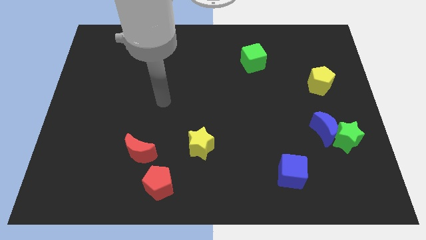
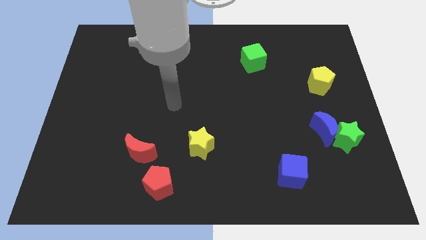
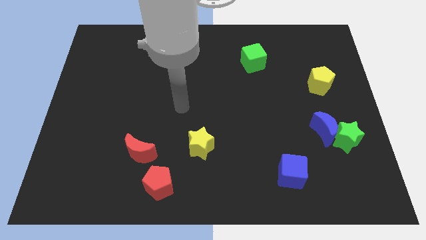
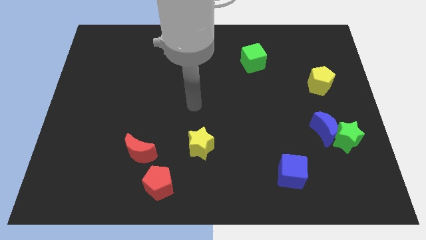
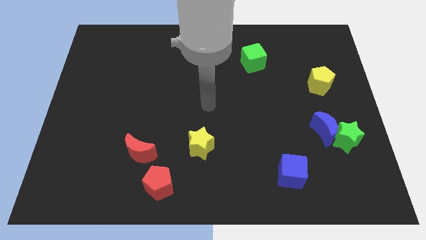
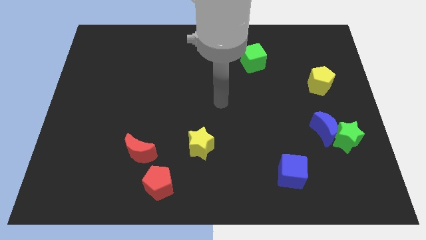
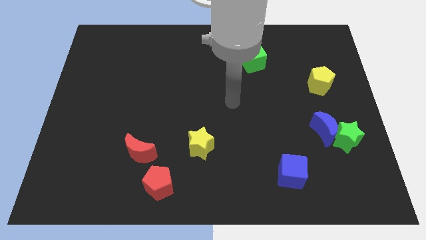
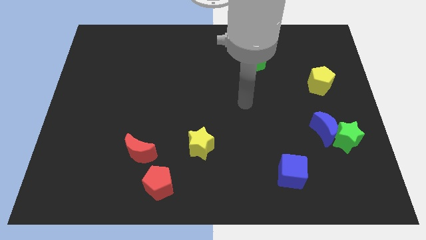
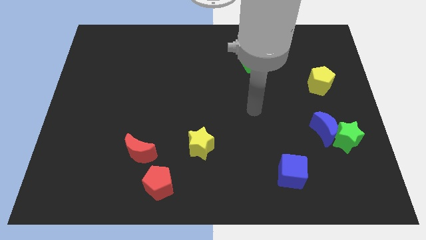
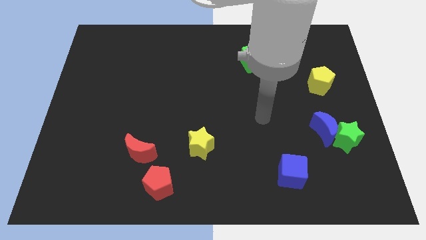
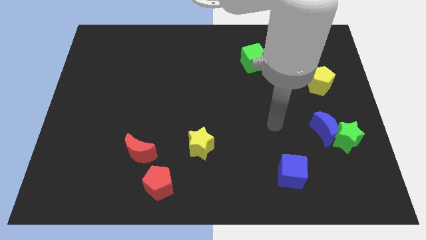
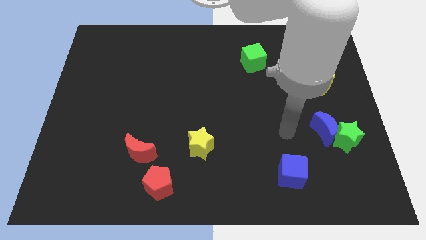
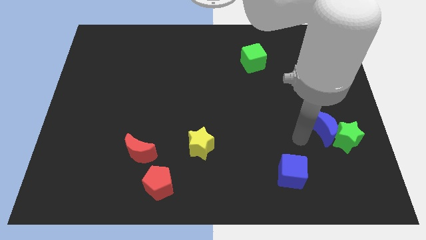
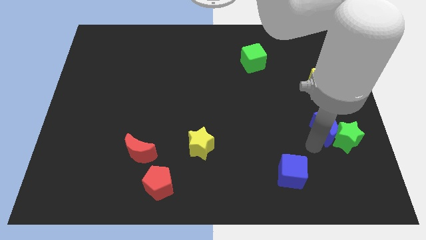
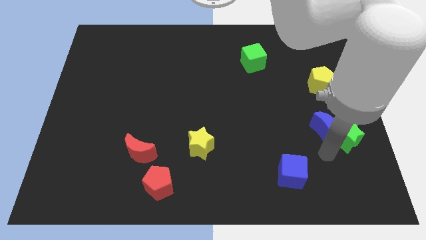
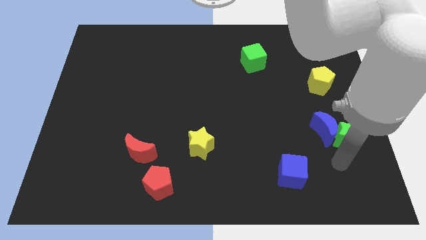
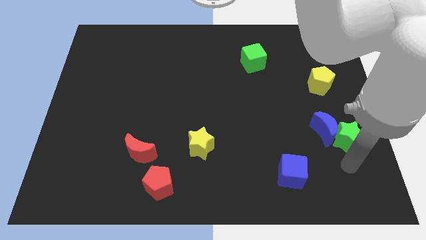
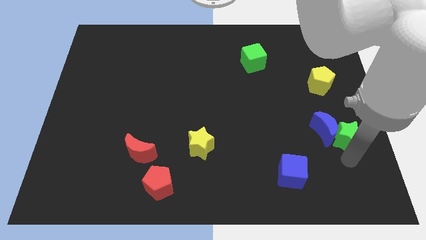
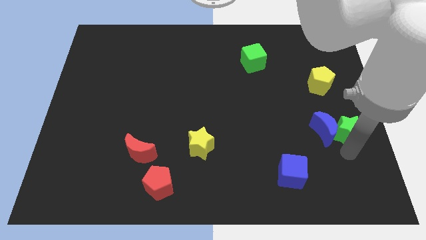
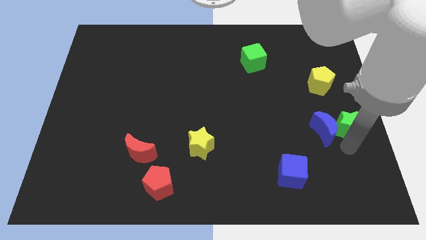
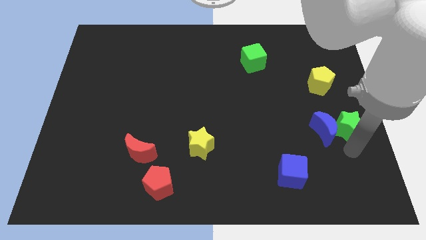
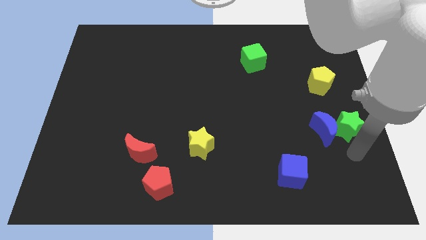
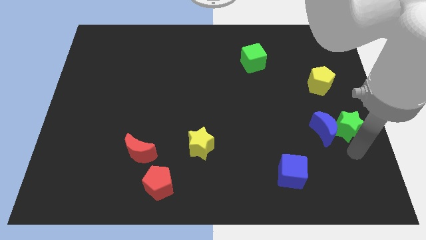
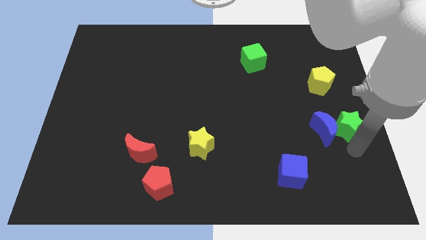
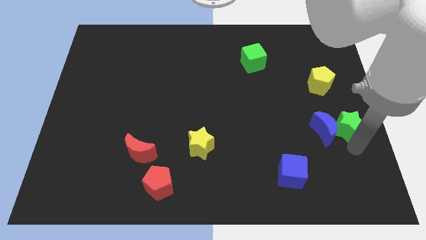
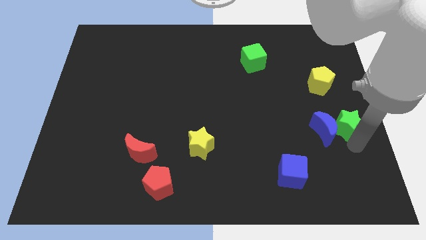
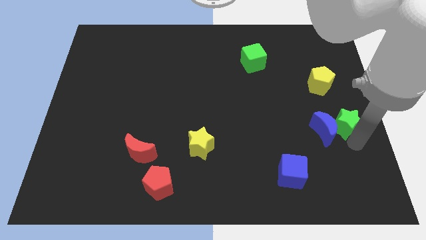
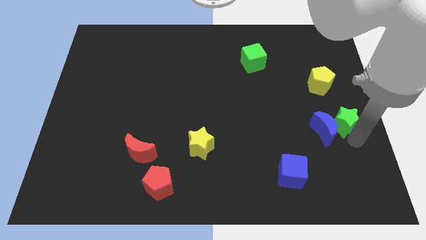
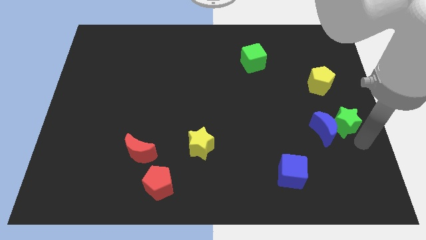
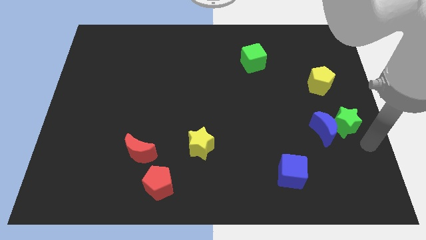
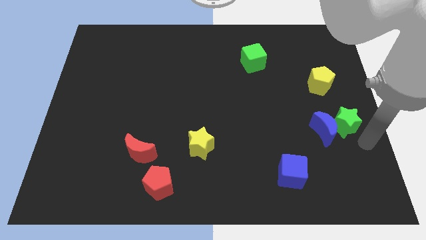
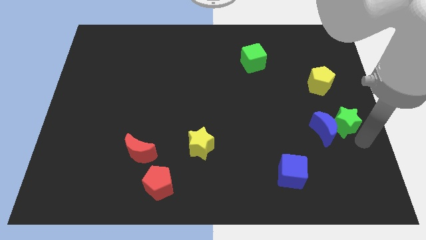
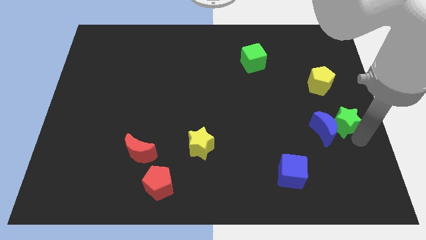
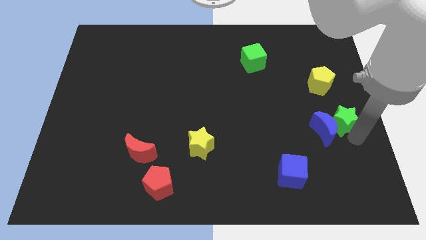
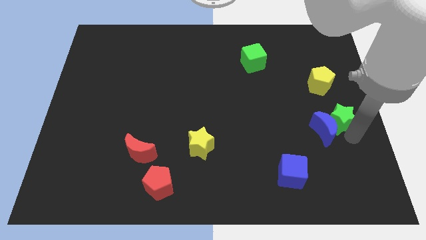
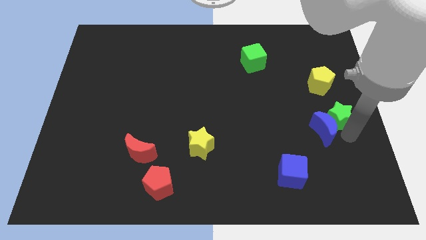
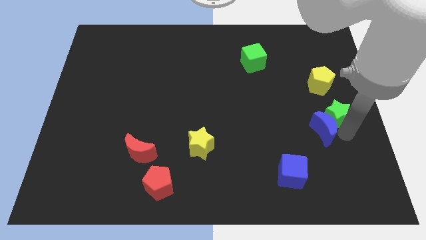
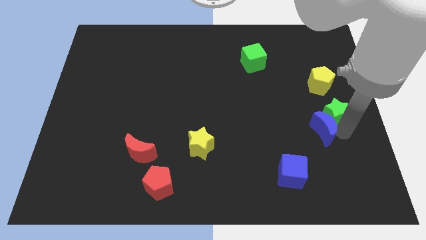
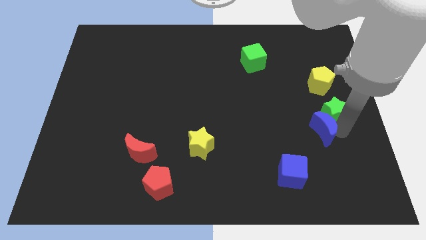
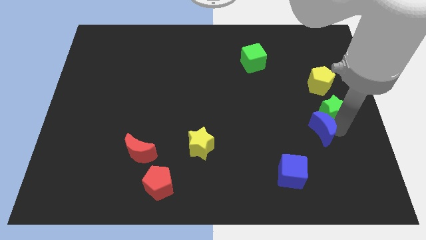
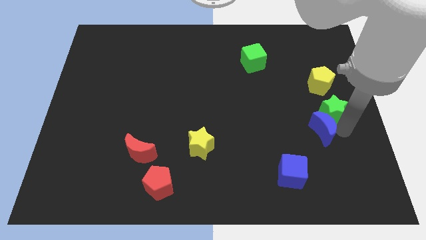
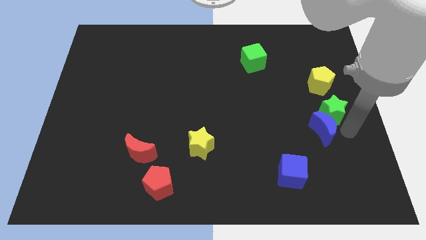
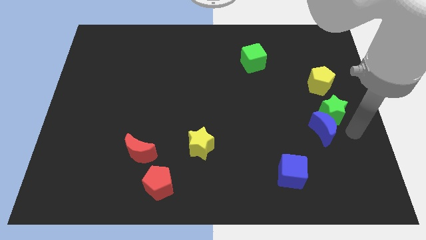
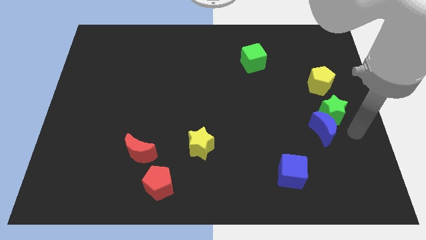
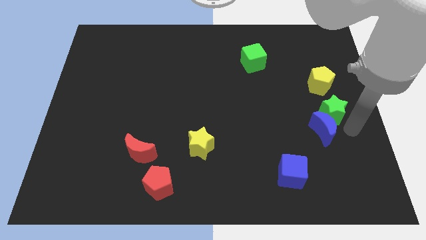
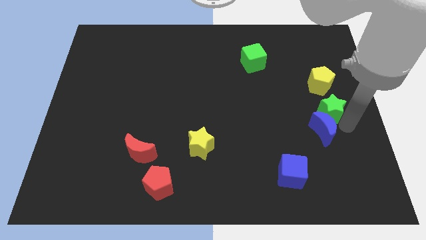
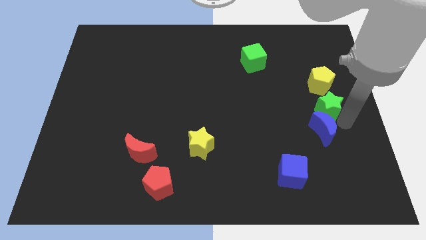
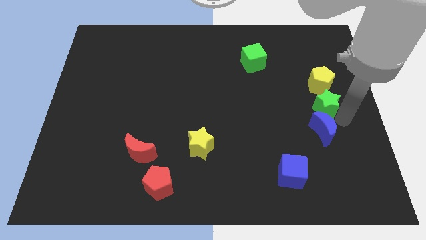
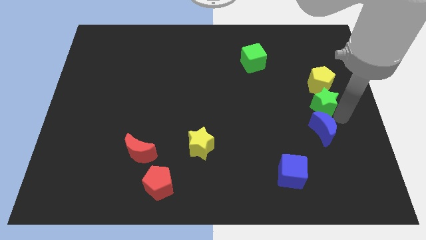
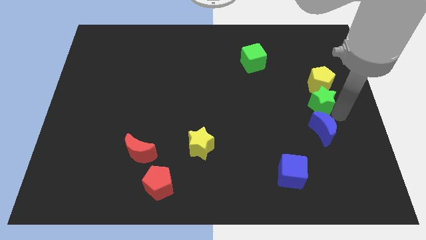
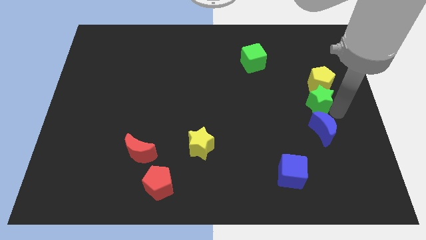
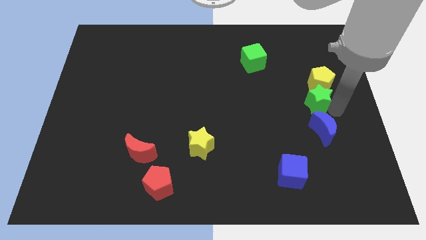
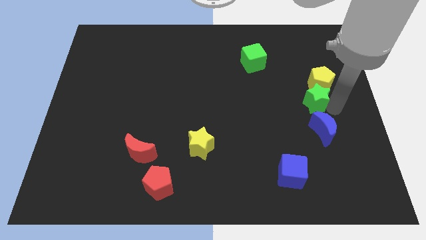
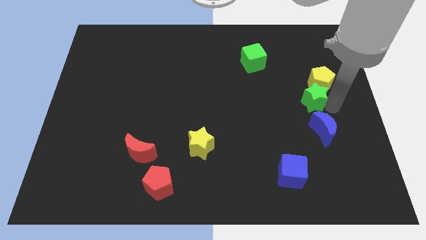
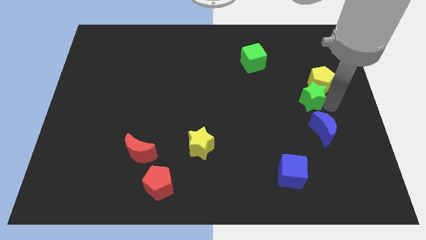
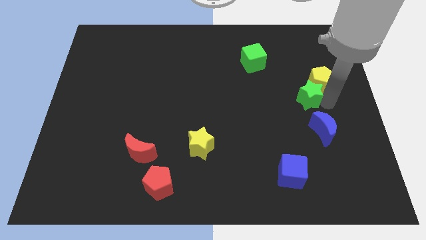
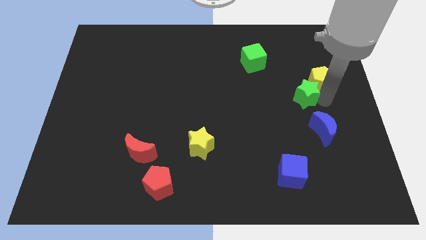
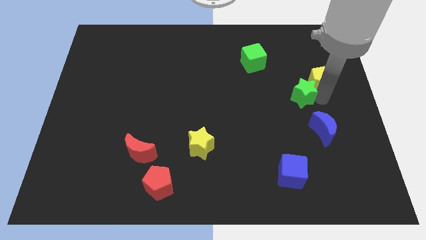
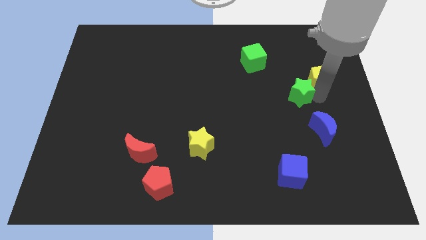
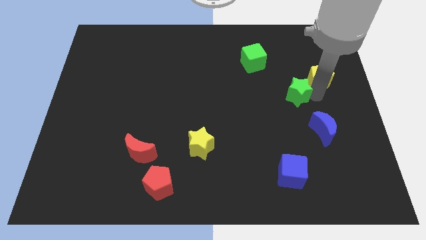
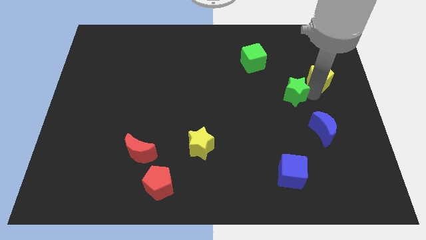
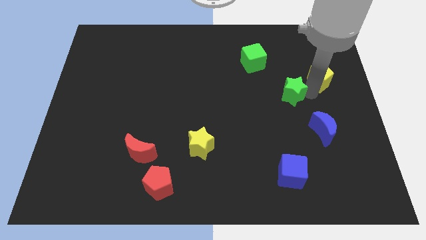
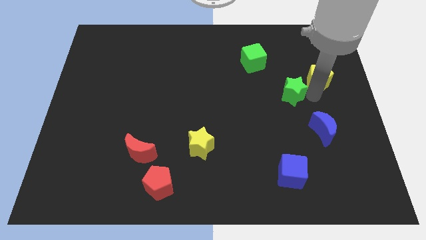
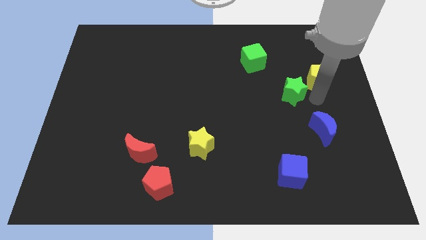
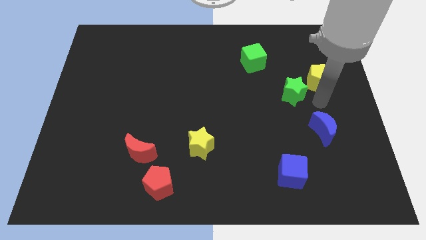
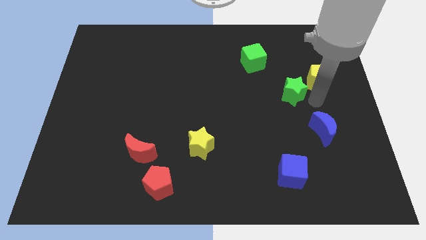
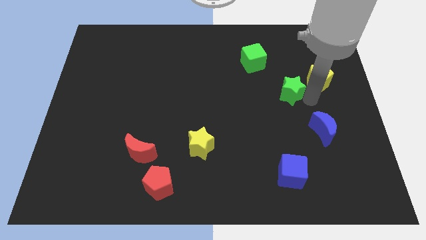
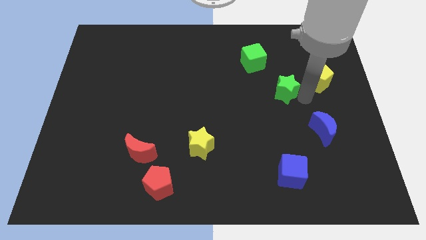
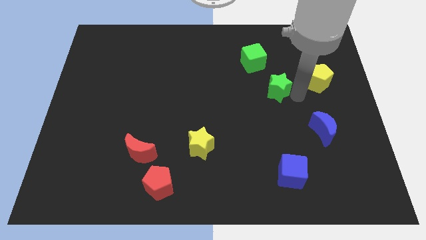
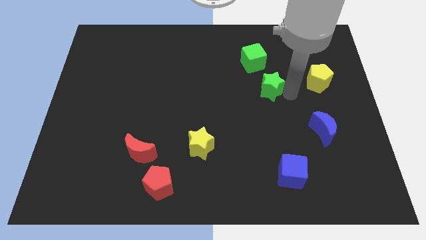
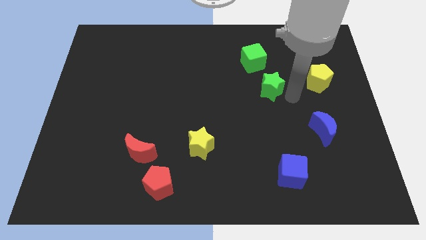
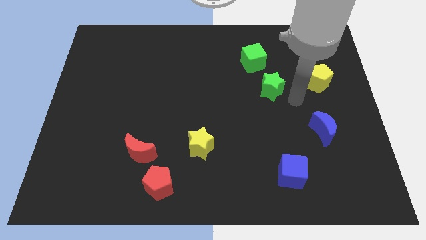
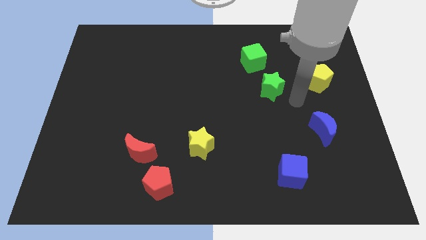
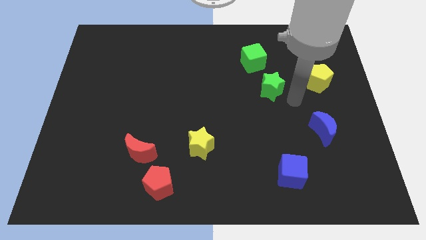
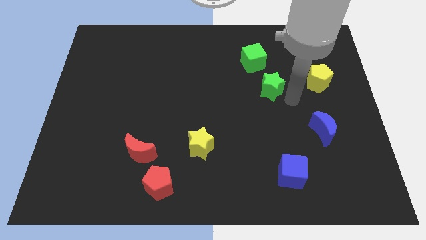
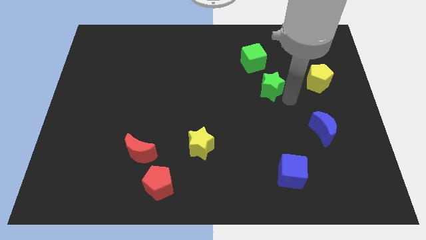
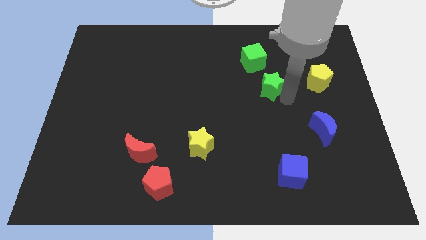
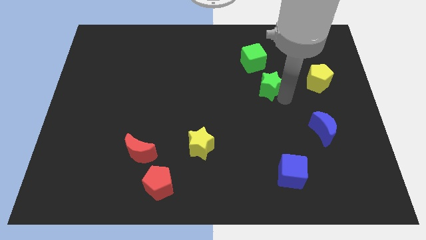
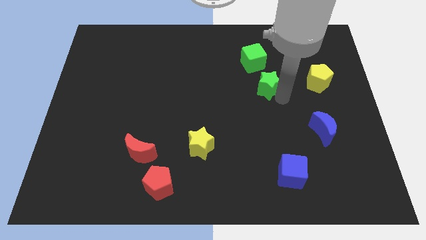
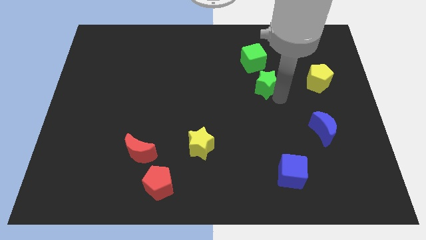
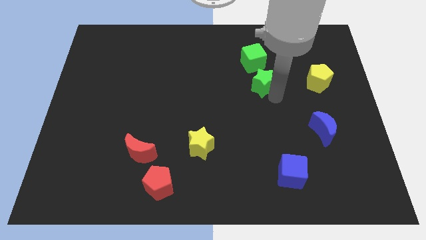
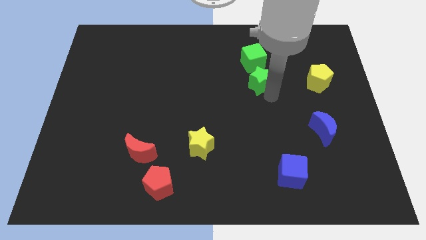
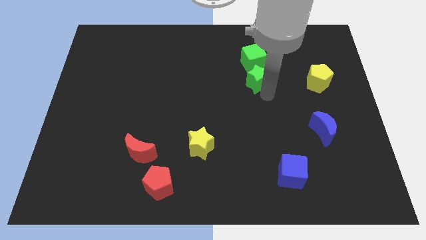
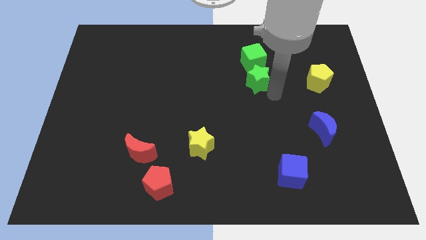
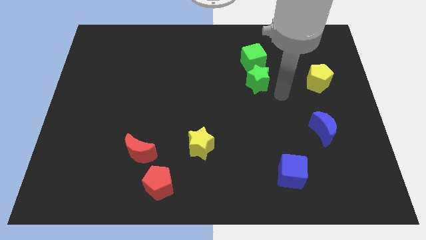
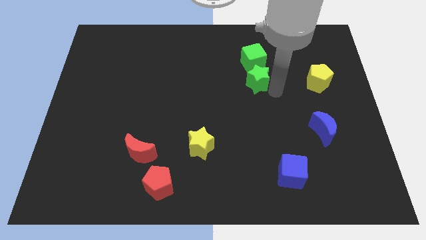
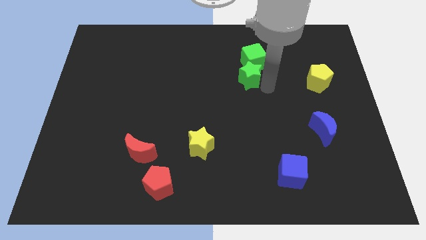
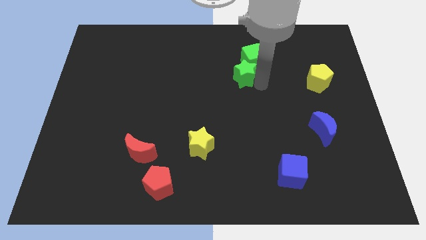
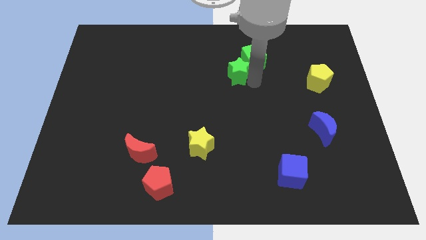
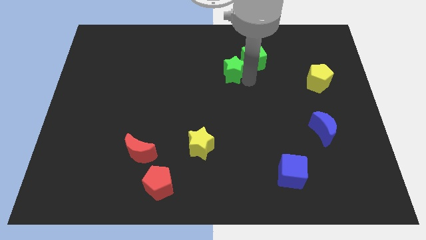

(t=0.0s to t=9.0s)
move the green star just left of the green cube
